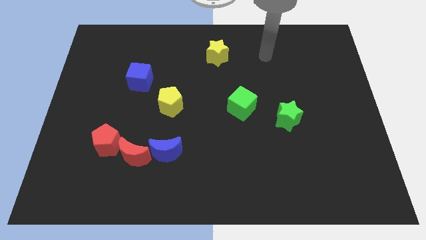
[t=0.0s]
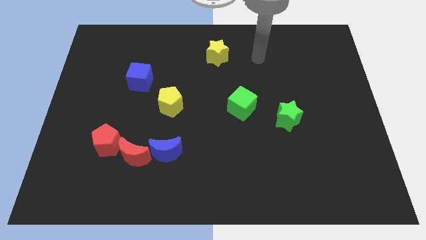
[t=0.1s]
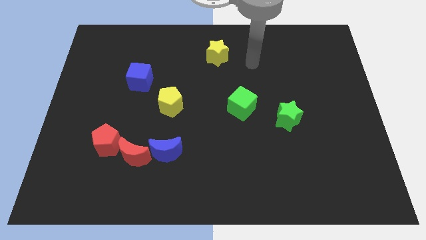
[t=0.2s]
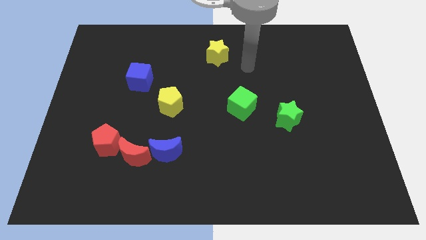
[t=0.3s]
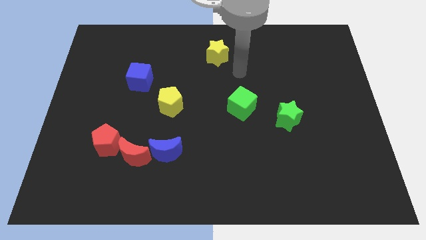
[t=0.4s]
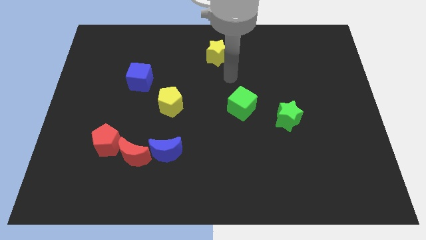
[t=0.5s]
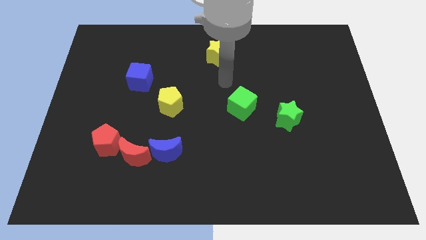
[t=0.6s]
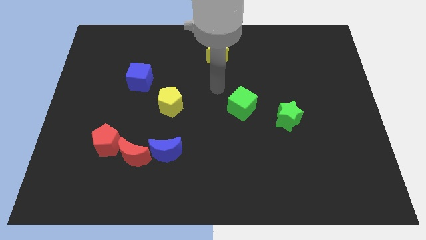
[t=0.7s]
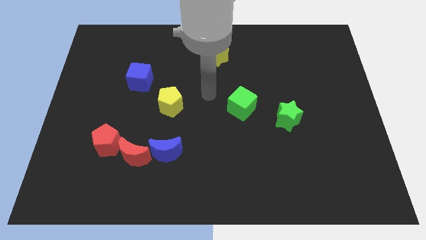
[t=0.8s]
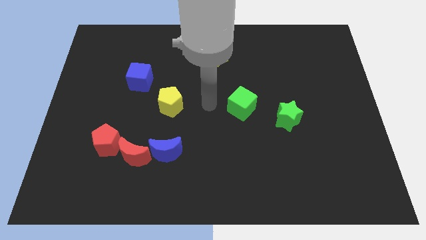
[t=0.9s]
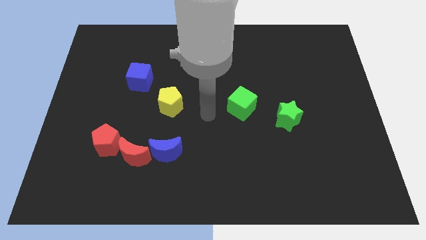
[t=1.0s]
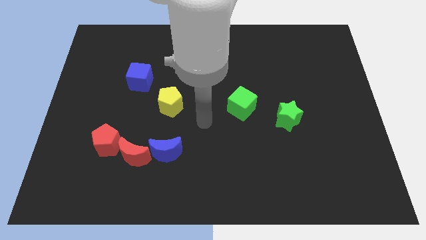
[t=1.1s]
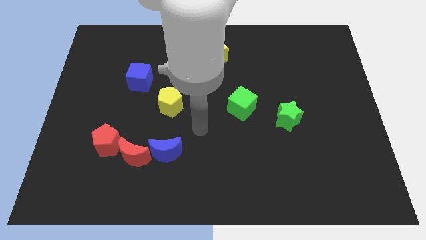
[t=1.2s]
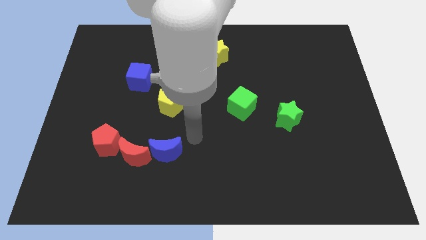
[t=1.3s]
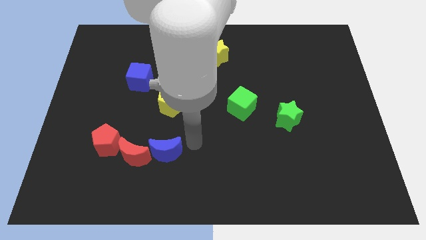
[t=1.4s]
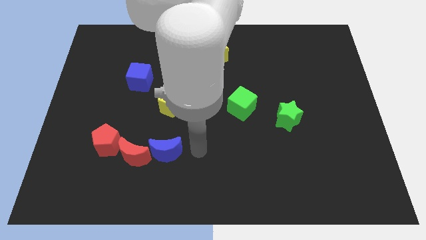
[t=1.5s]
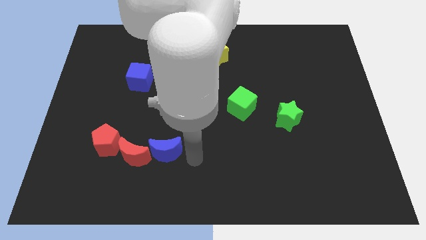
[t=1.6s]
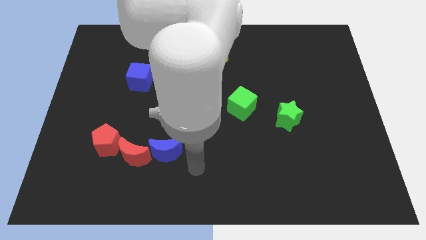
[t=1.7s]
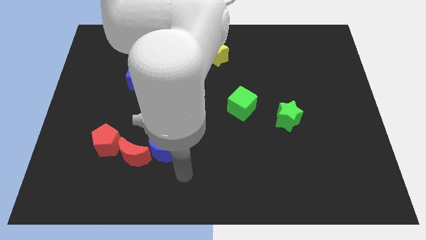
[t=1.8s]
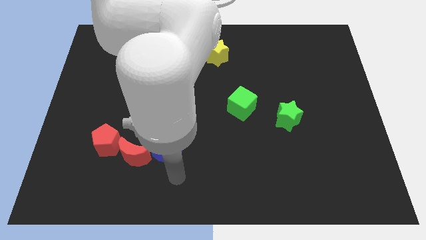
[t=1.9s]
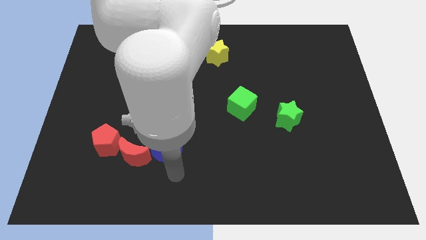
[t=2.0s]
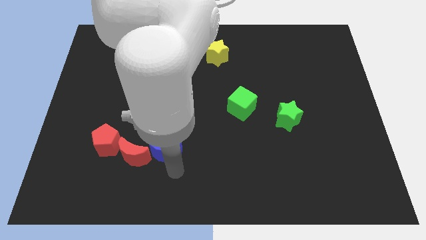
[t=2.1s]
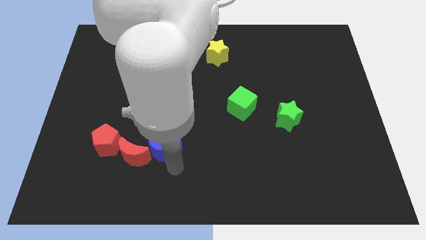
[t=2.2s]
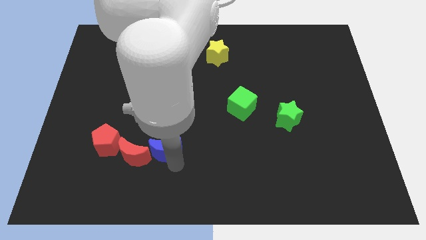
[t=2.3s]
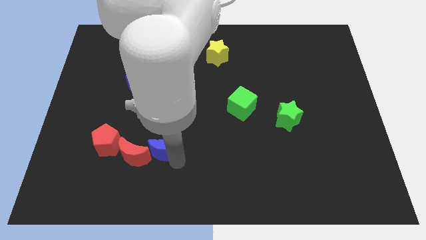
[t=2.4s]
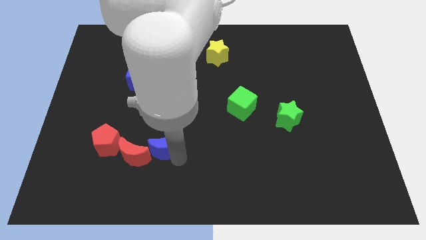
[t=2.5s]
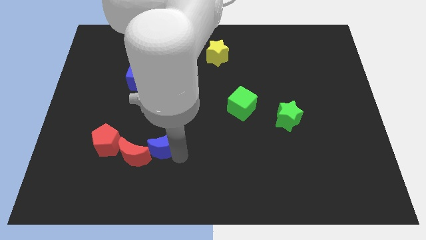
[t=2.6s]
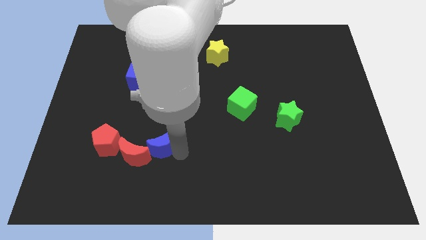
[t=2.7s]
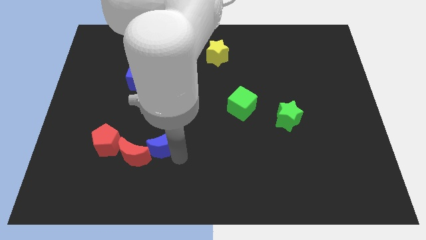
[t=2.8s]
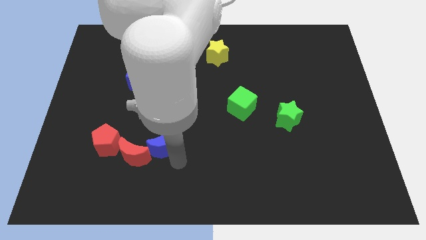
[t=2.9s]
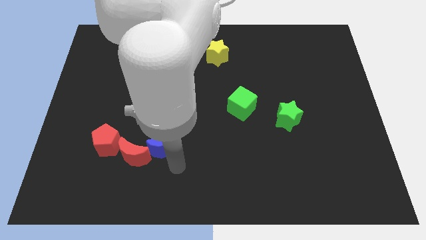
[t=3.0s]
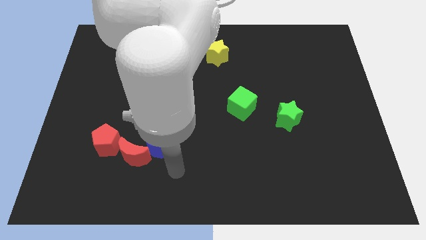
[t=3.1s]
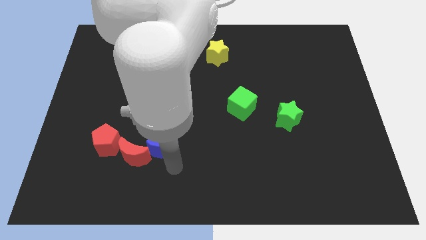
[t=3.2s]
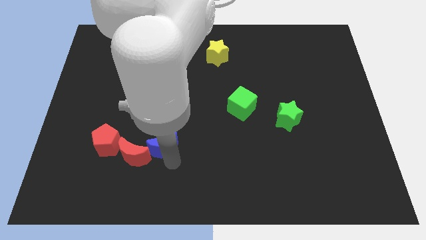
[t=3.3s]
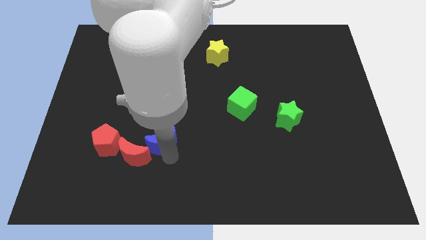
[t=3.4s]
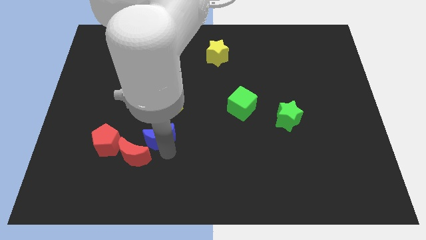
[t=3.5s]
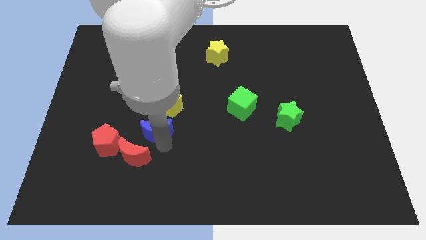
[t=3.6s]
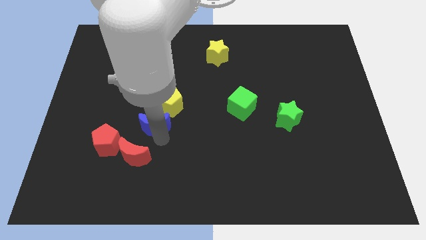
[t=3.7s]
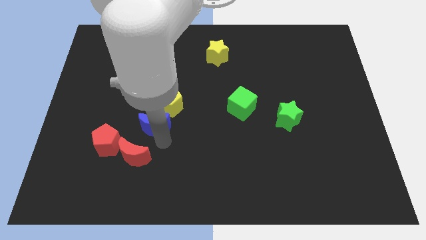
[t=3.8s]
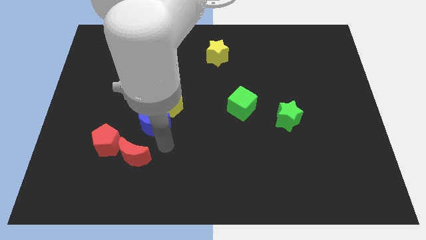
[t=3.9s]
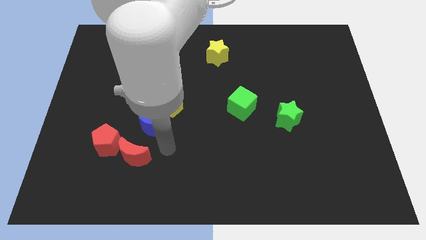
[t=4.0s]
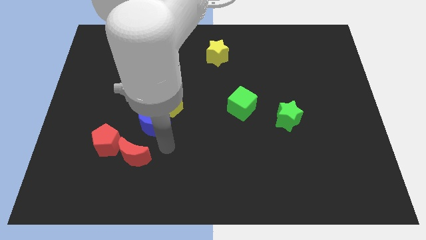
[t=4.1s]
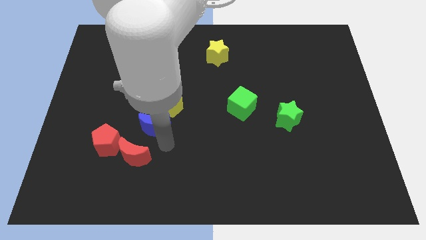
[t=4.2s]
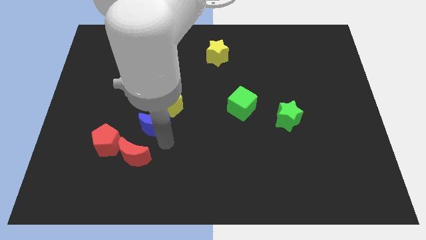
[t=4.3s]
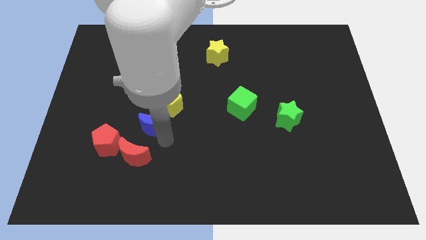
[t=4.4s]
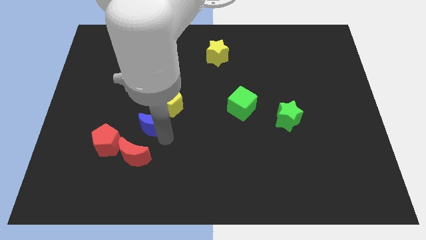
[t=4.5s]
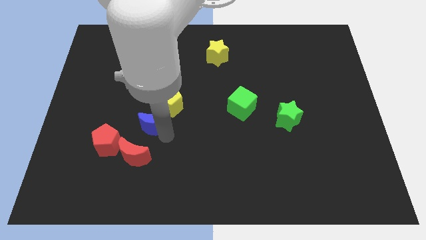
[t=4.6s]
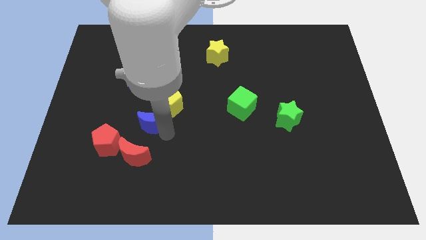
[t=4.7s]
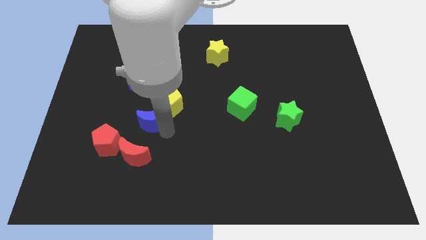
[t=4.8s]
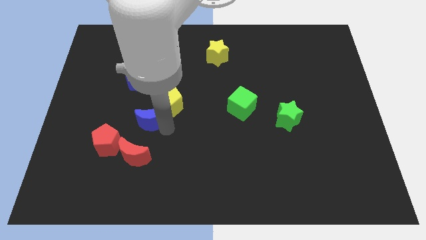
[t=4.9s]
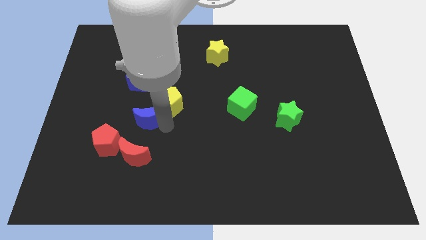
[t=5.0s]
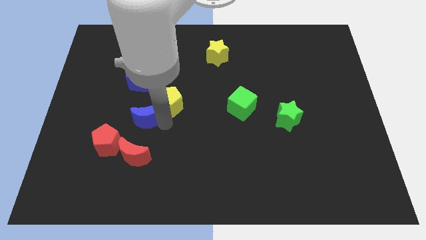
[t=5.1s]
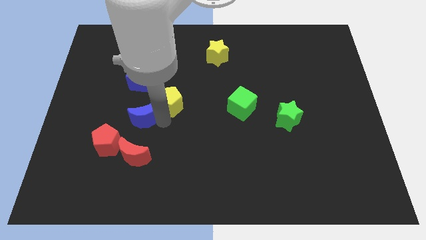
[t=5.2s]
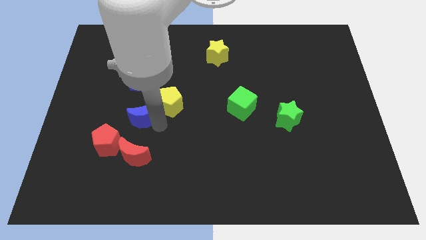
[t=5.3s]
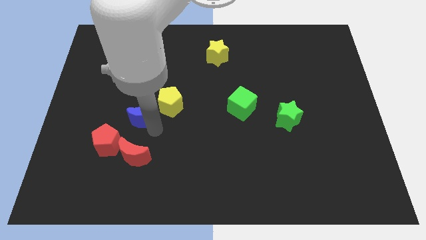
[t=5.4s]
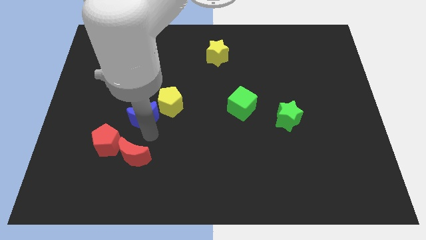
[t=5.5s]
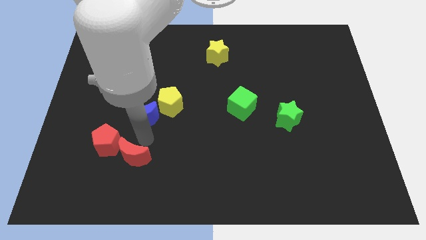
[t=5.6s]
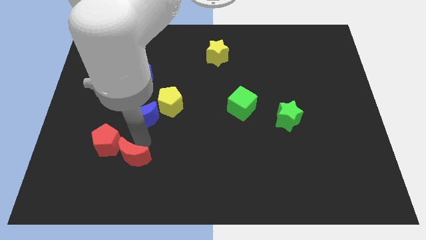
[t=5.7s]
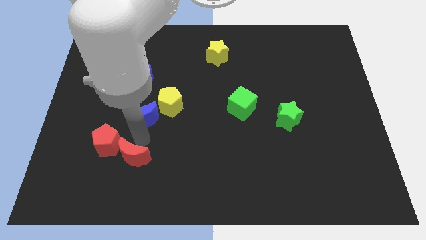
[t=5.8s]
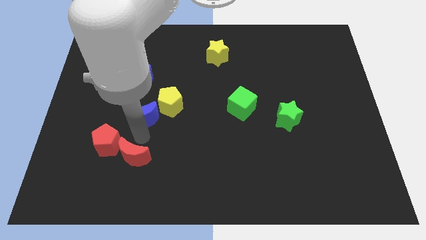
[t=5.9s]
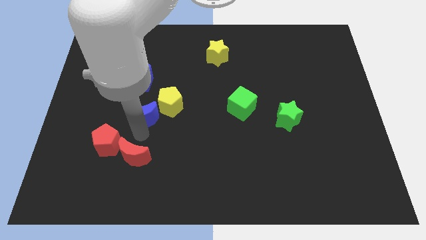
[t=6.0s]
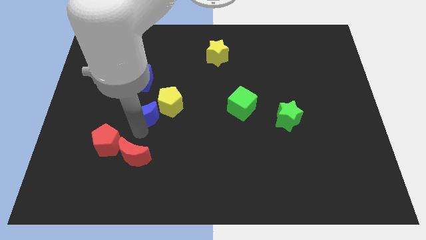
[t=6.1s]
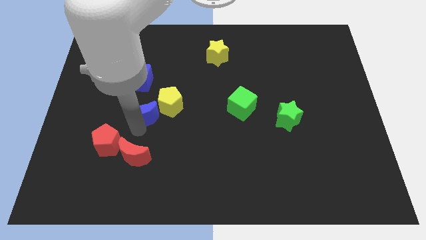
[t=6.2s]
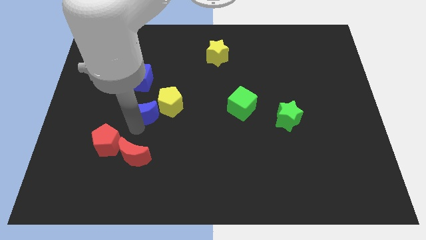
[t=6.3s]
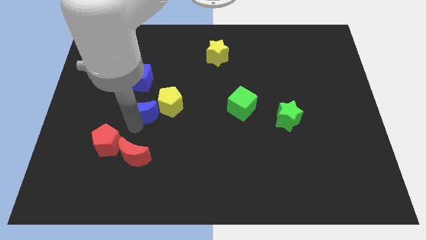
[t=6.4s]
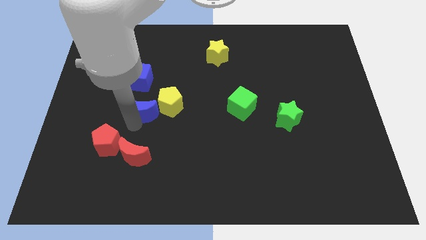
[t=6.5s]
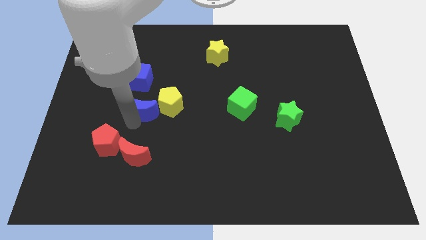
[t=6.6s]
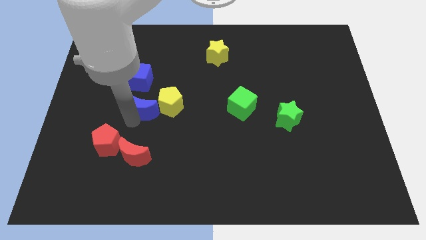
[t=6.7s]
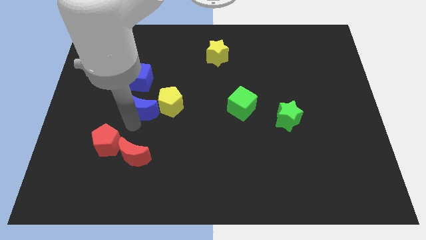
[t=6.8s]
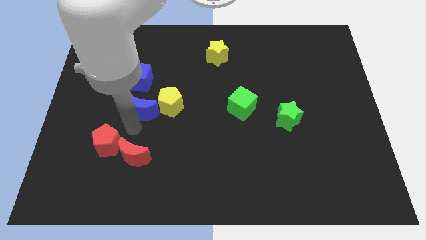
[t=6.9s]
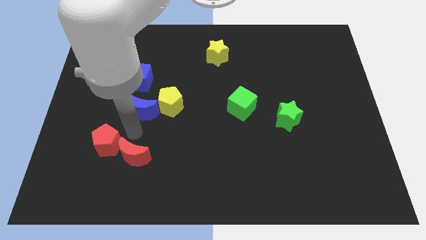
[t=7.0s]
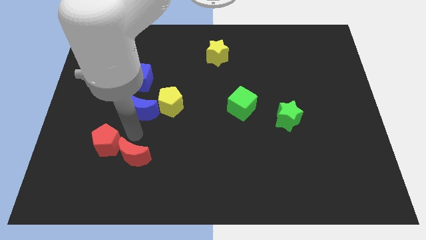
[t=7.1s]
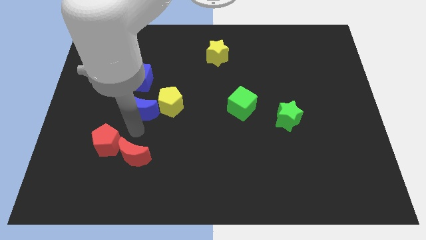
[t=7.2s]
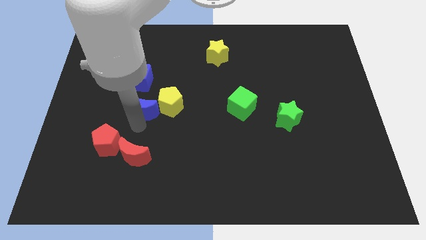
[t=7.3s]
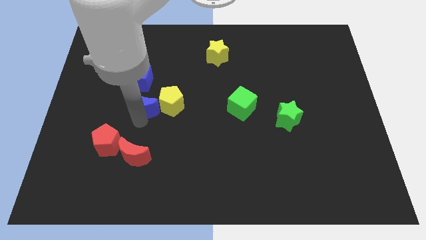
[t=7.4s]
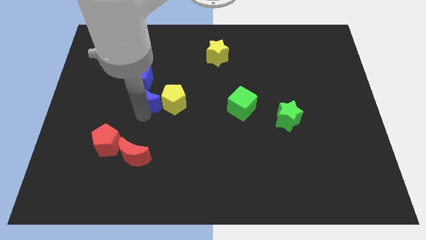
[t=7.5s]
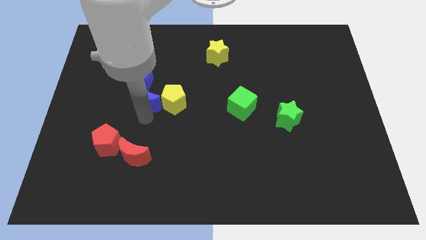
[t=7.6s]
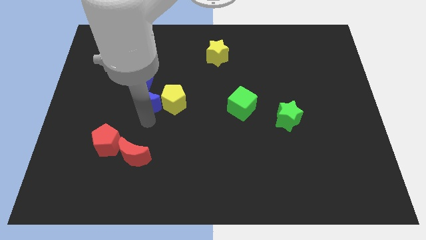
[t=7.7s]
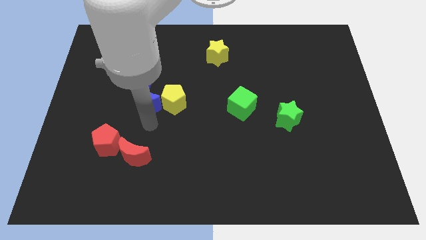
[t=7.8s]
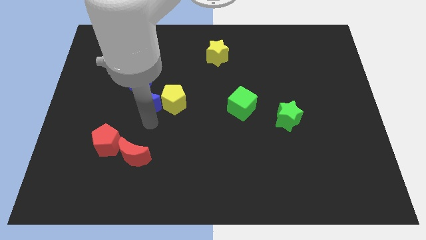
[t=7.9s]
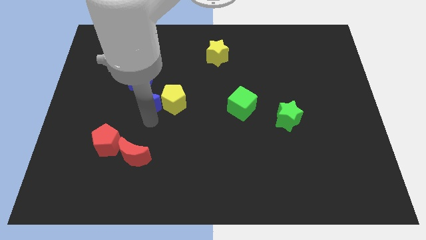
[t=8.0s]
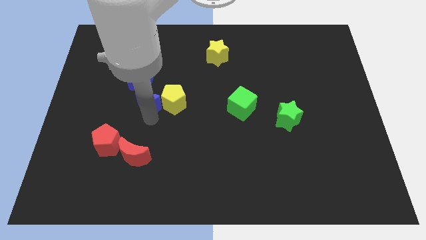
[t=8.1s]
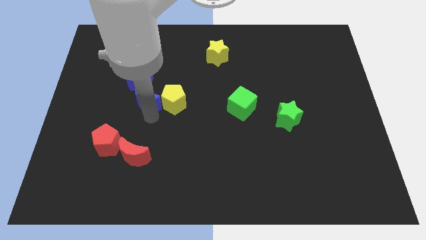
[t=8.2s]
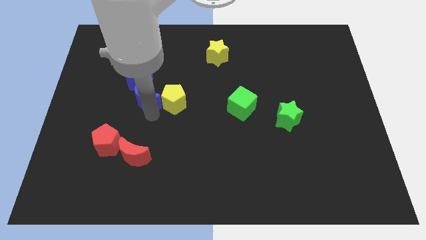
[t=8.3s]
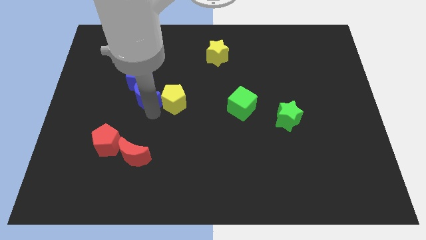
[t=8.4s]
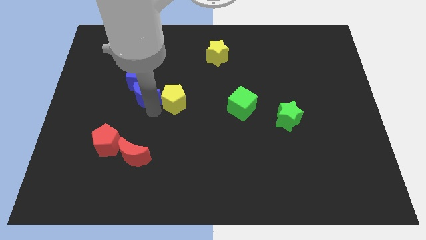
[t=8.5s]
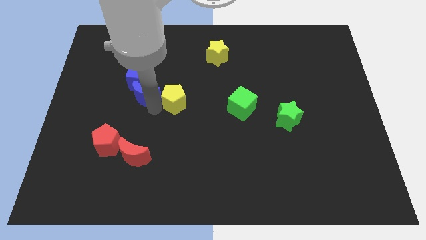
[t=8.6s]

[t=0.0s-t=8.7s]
put the blue moon close to the blue cube
